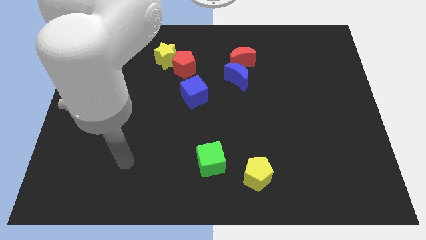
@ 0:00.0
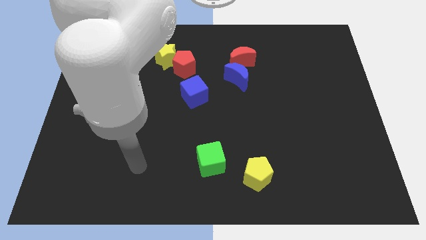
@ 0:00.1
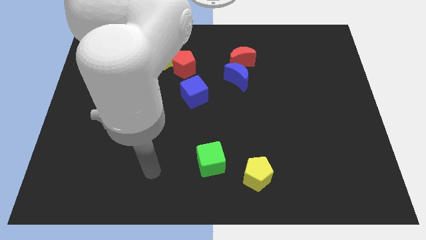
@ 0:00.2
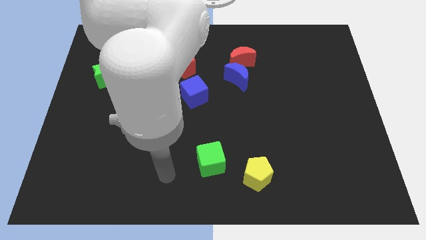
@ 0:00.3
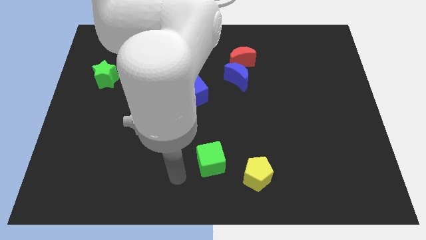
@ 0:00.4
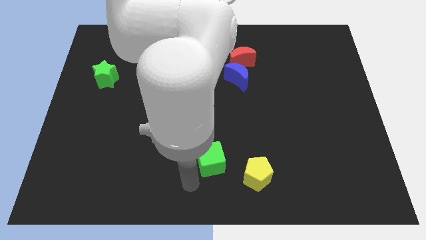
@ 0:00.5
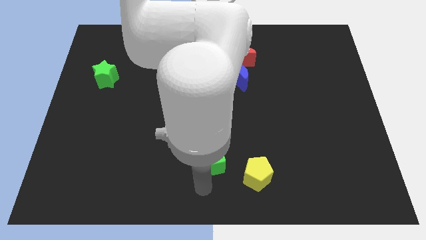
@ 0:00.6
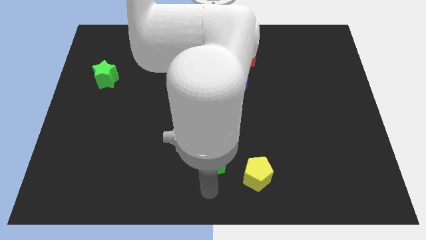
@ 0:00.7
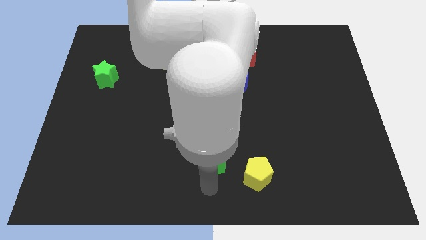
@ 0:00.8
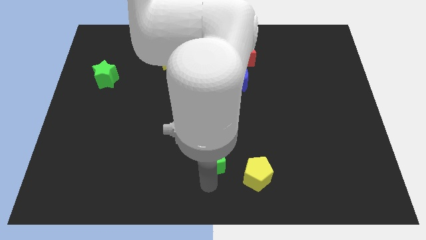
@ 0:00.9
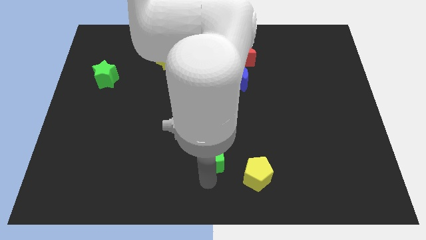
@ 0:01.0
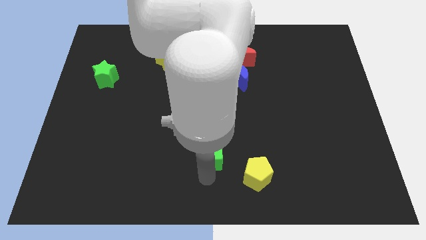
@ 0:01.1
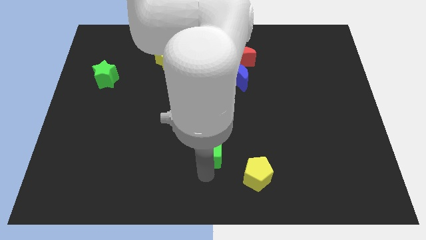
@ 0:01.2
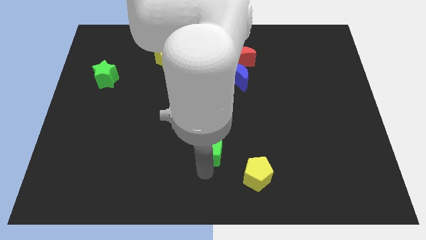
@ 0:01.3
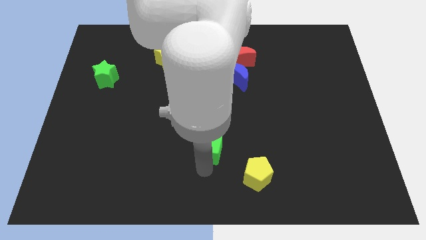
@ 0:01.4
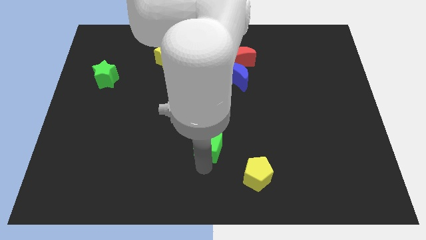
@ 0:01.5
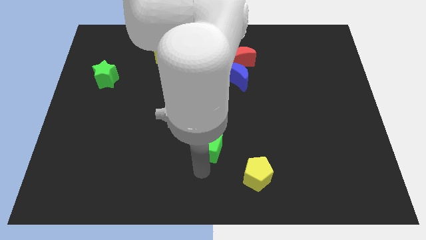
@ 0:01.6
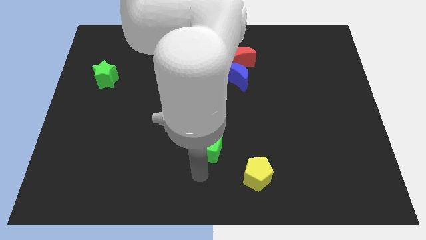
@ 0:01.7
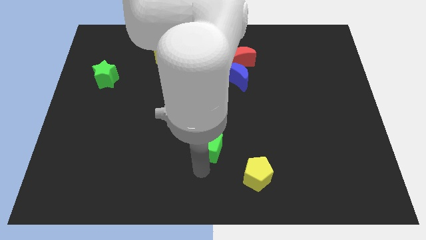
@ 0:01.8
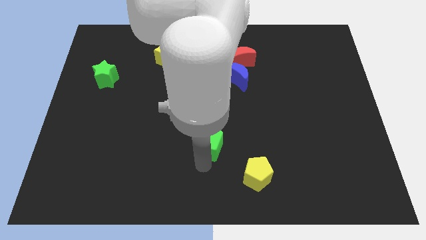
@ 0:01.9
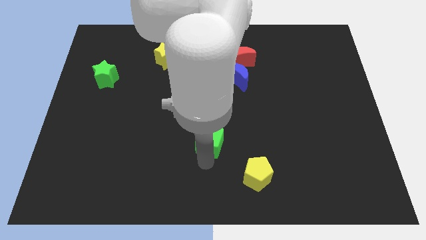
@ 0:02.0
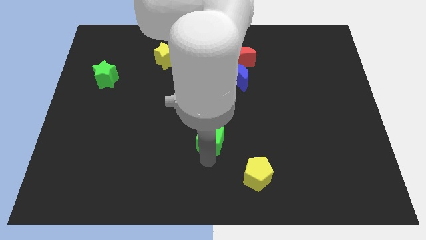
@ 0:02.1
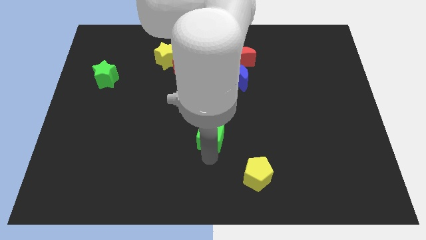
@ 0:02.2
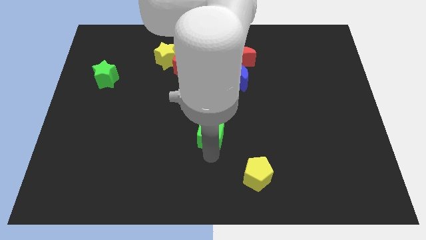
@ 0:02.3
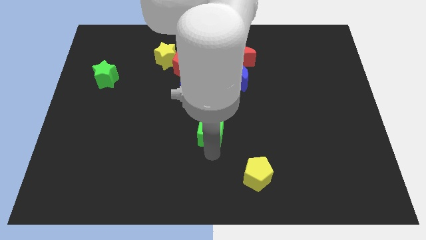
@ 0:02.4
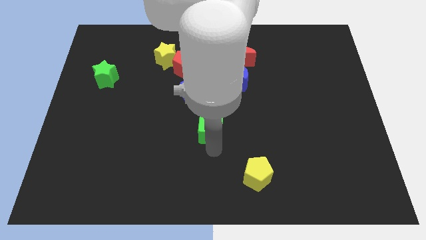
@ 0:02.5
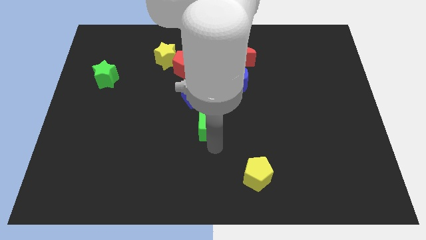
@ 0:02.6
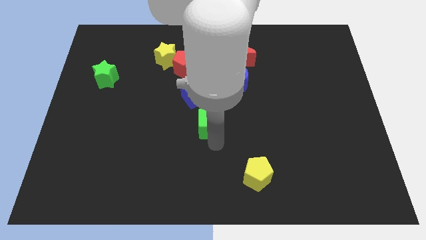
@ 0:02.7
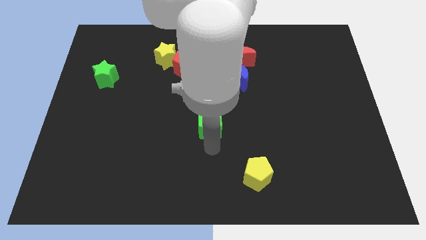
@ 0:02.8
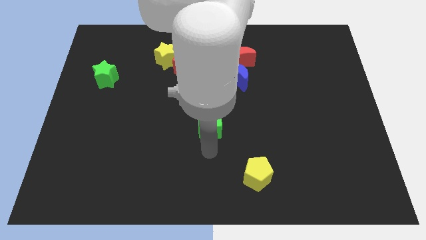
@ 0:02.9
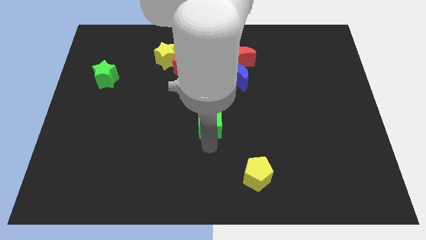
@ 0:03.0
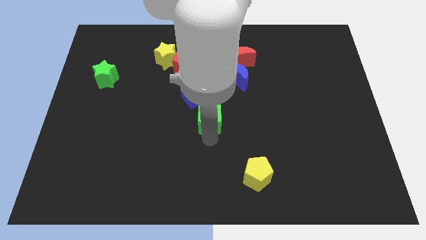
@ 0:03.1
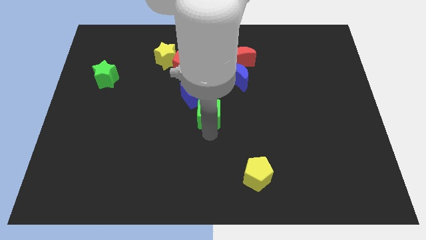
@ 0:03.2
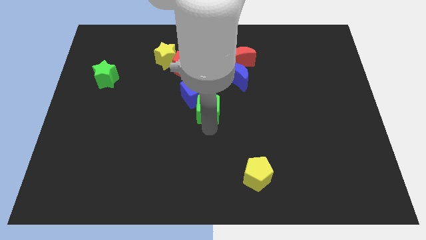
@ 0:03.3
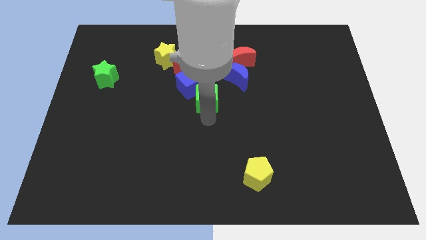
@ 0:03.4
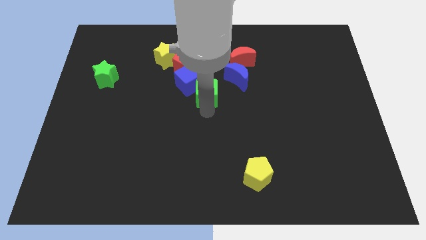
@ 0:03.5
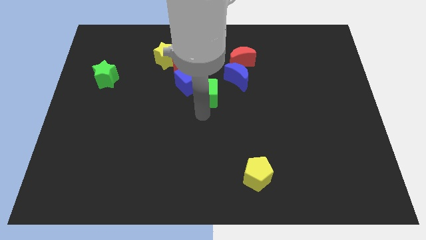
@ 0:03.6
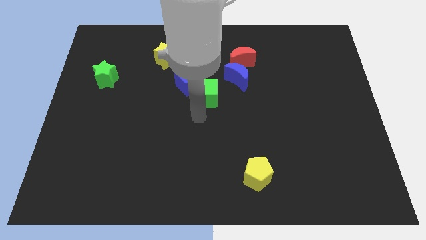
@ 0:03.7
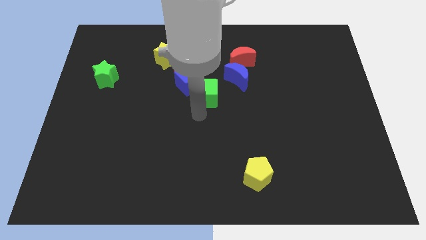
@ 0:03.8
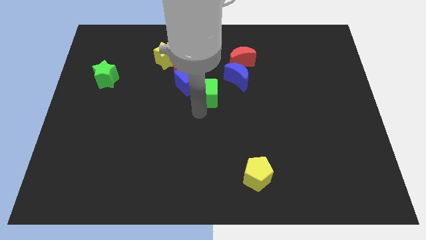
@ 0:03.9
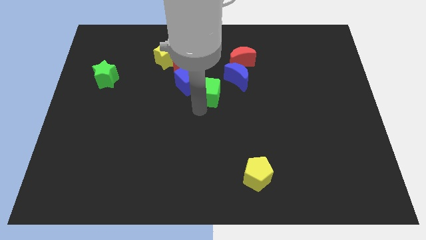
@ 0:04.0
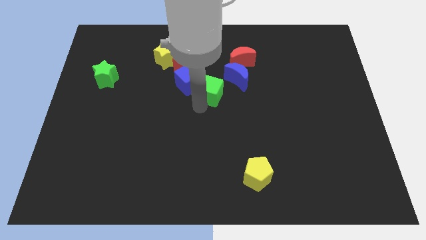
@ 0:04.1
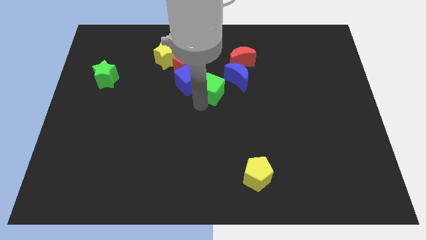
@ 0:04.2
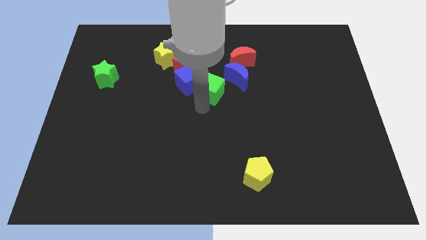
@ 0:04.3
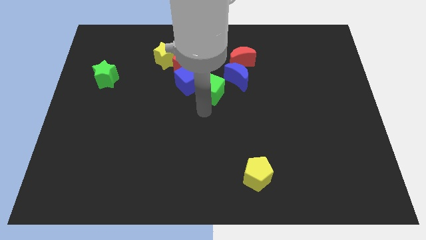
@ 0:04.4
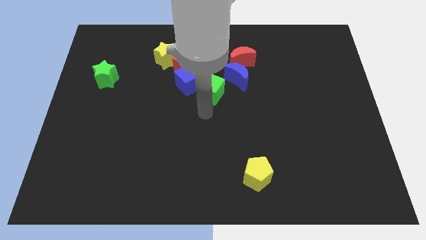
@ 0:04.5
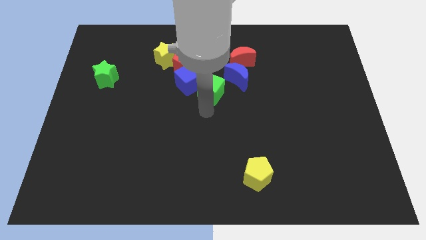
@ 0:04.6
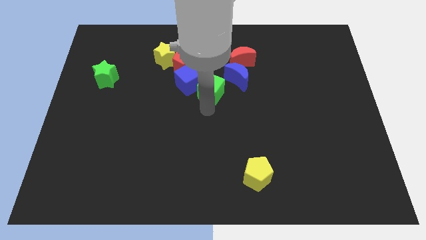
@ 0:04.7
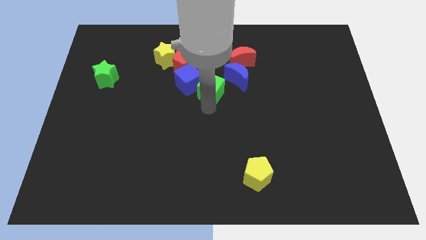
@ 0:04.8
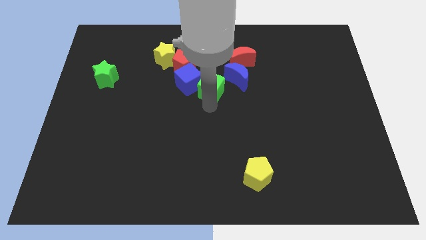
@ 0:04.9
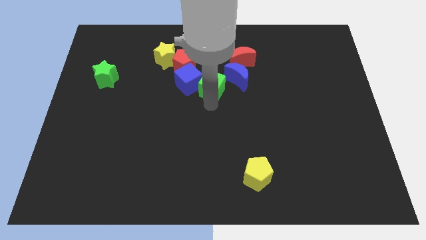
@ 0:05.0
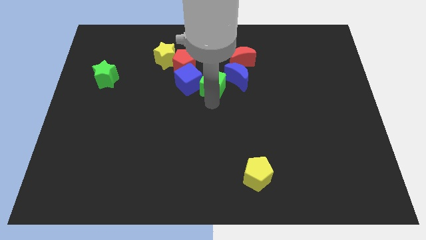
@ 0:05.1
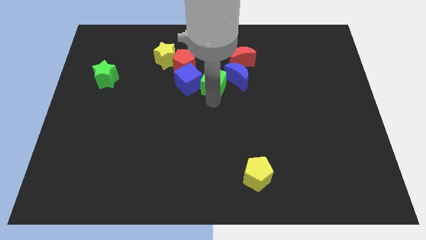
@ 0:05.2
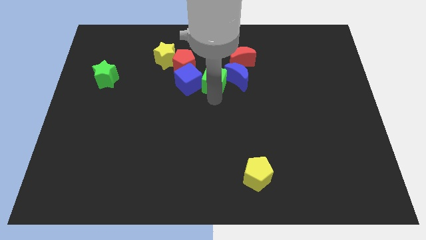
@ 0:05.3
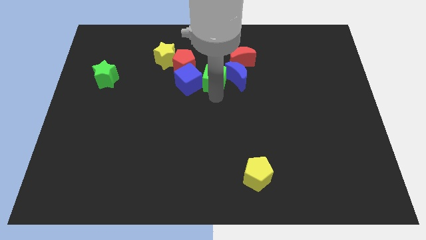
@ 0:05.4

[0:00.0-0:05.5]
push the green cube diagonally up and to the left of the blue moon

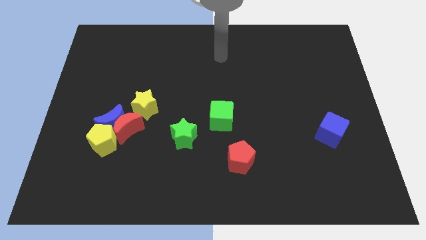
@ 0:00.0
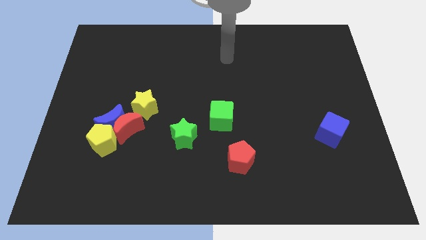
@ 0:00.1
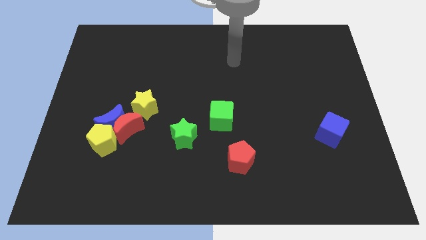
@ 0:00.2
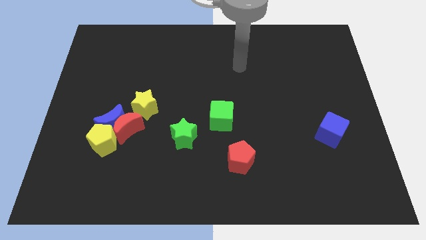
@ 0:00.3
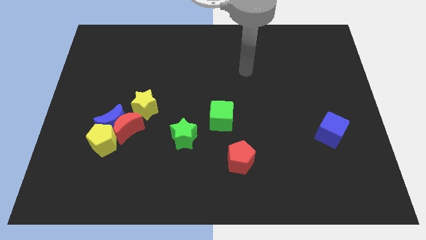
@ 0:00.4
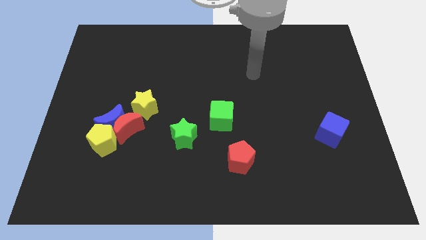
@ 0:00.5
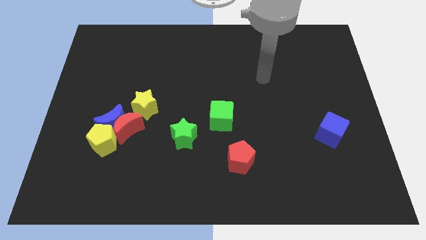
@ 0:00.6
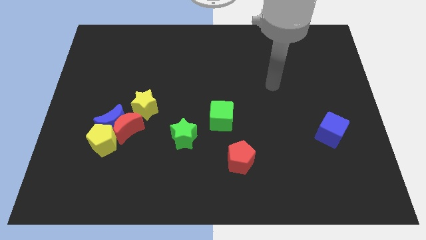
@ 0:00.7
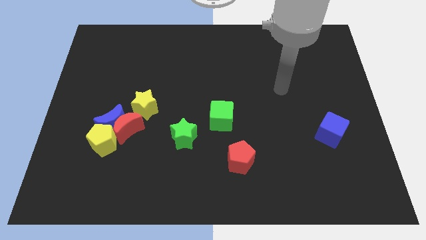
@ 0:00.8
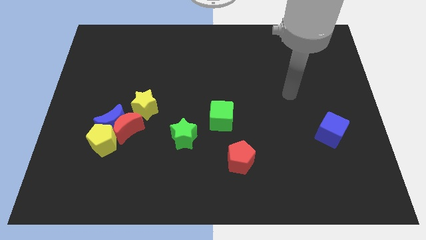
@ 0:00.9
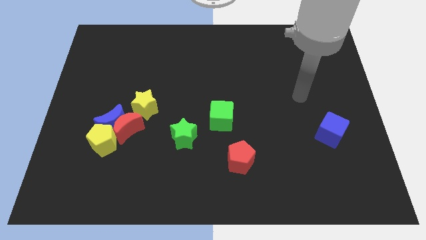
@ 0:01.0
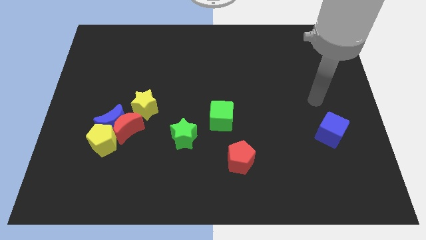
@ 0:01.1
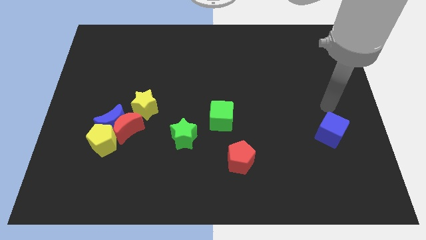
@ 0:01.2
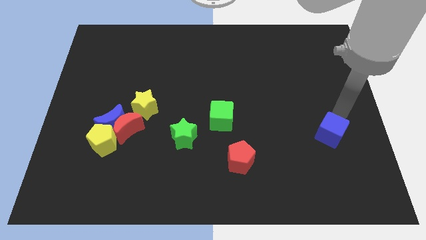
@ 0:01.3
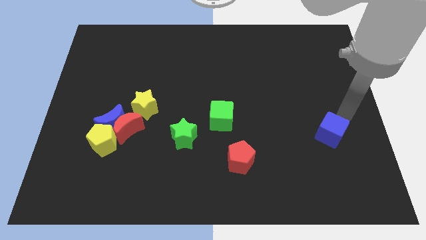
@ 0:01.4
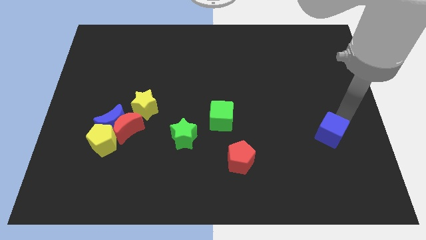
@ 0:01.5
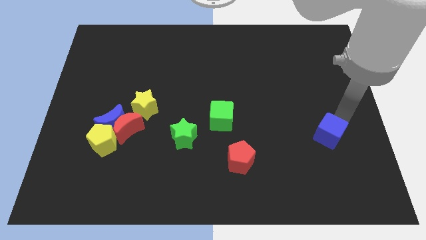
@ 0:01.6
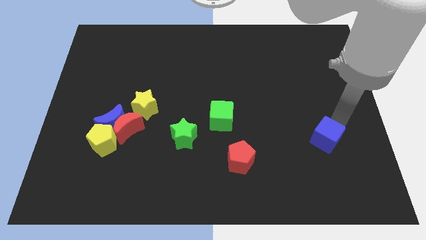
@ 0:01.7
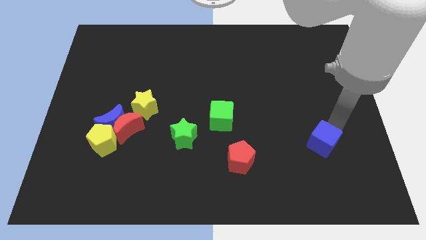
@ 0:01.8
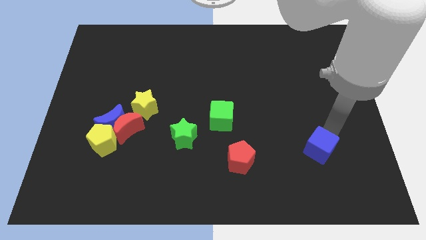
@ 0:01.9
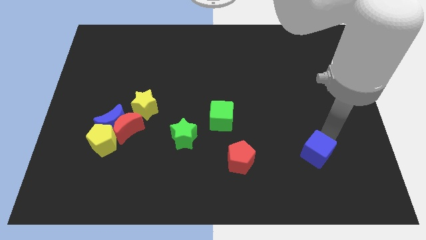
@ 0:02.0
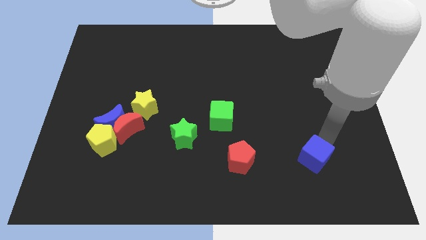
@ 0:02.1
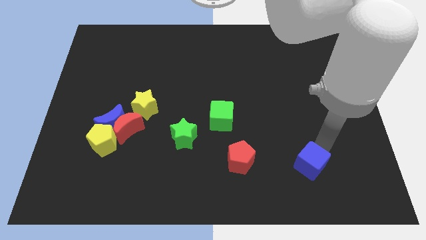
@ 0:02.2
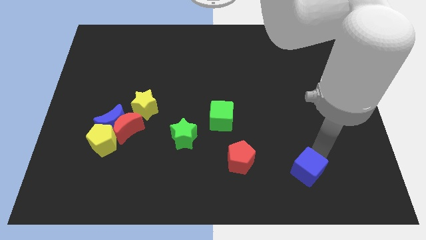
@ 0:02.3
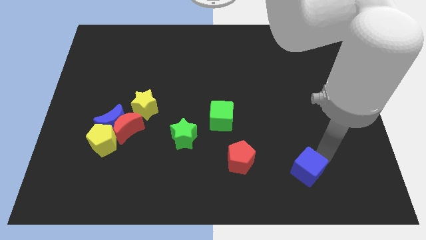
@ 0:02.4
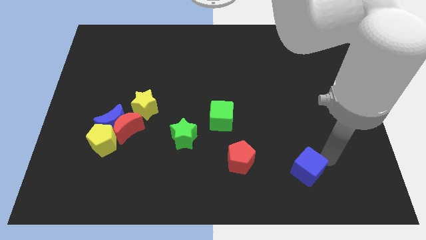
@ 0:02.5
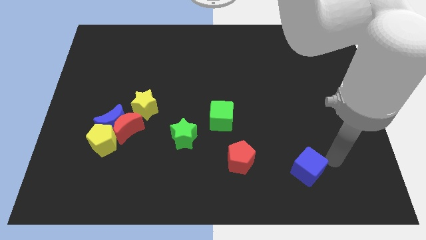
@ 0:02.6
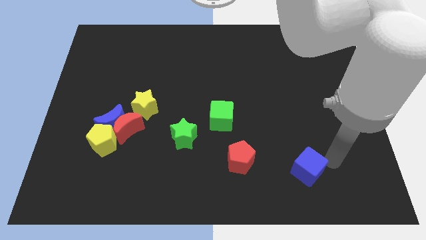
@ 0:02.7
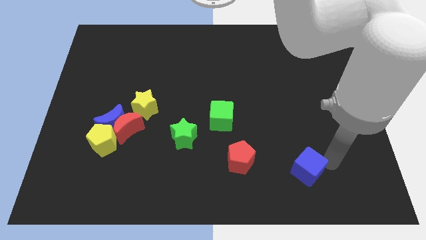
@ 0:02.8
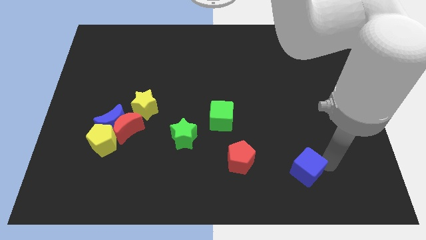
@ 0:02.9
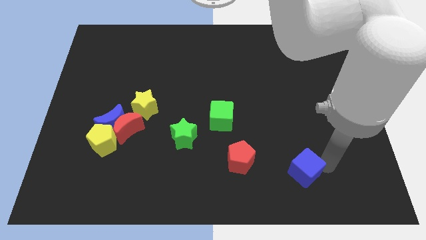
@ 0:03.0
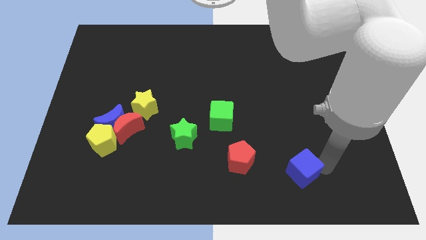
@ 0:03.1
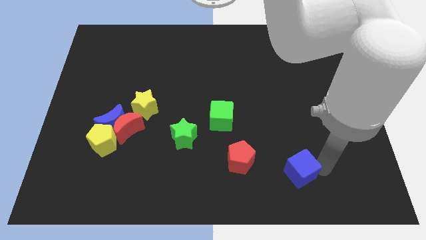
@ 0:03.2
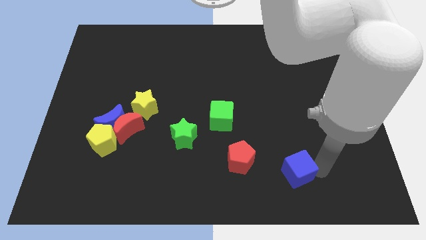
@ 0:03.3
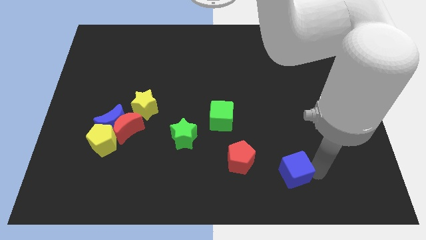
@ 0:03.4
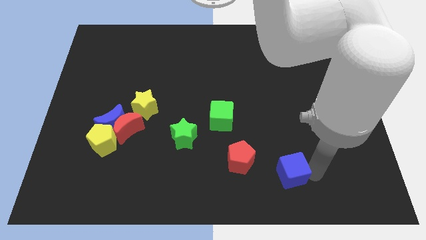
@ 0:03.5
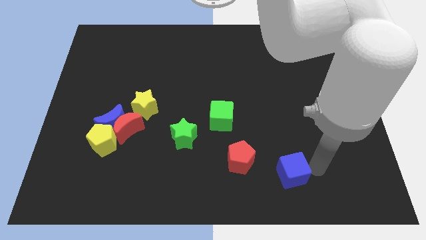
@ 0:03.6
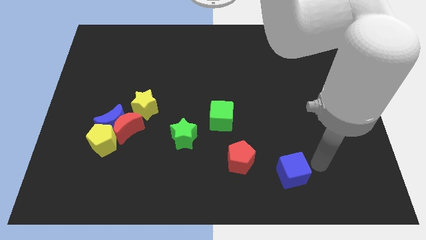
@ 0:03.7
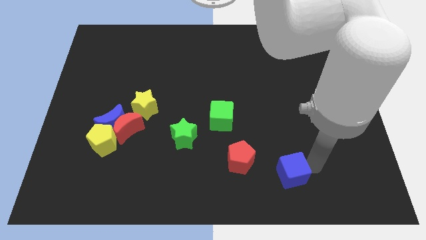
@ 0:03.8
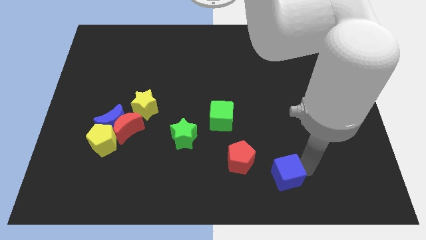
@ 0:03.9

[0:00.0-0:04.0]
move the blue cube to the bottom right side of the red pentagon
